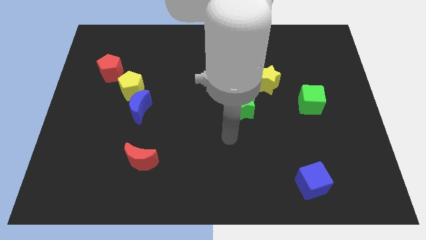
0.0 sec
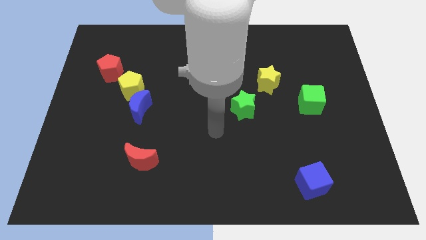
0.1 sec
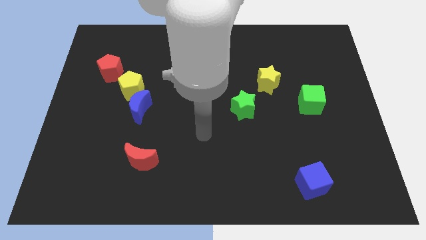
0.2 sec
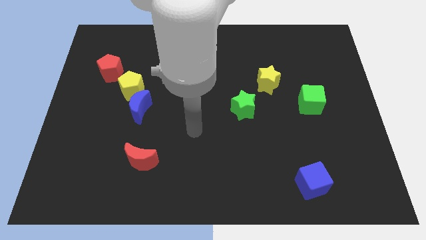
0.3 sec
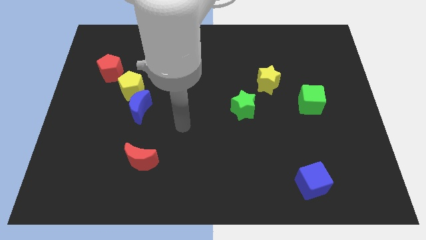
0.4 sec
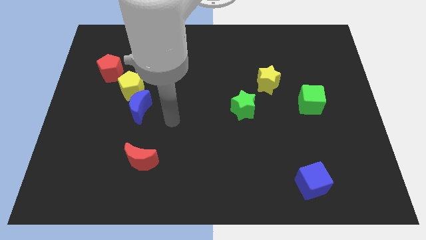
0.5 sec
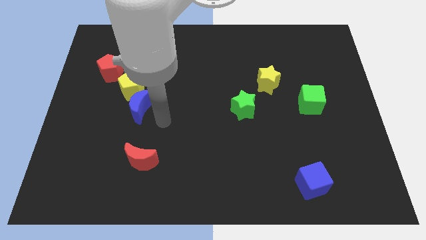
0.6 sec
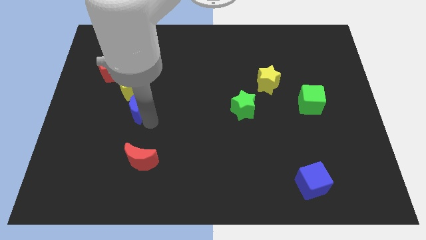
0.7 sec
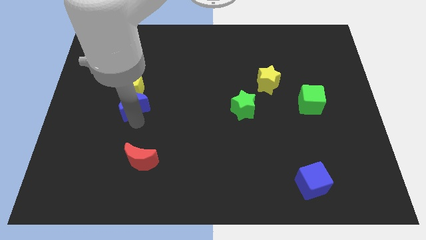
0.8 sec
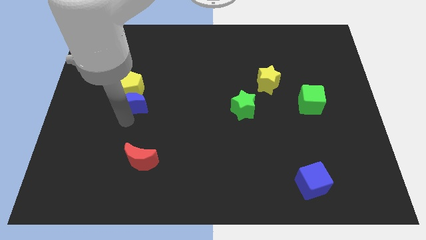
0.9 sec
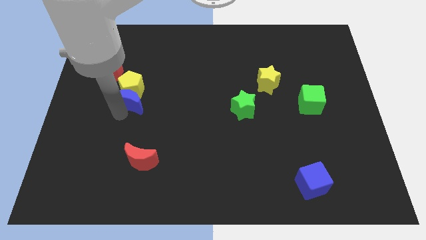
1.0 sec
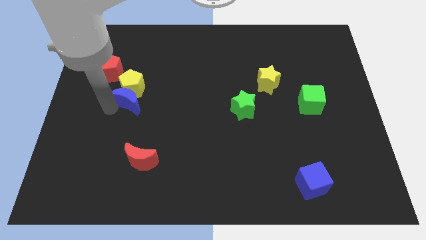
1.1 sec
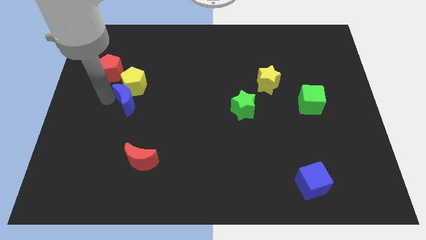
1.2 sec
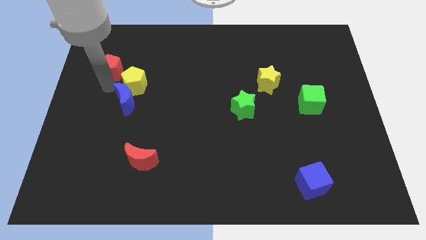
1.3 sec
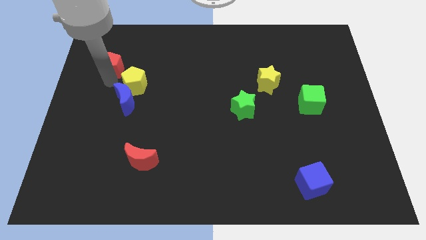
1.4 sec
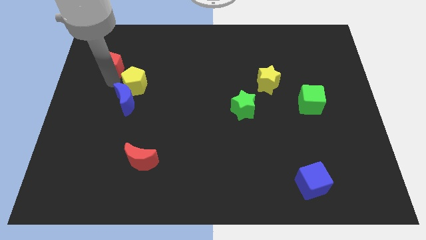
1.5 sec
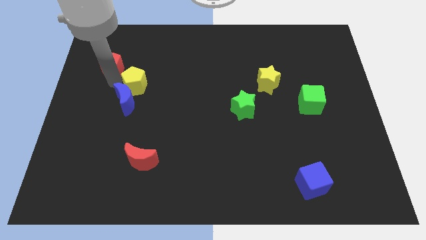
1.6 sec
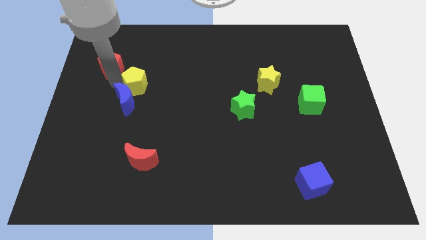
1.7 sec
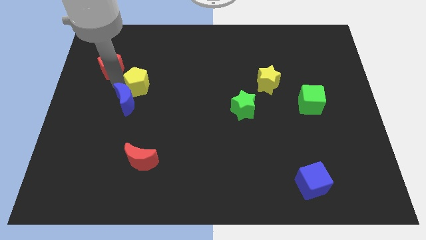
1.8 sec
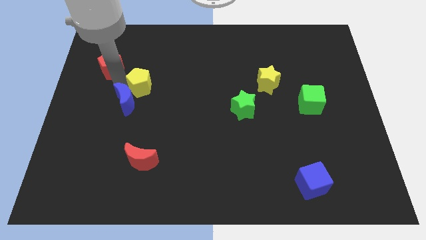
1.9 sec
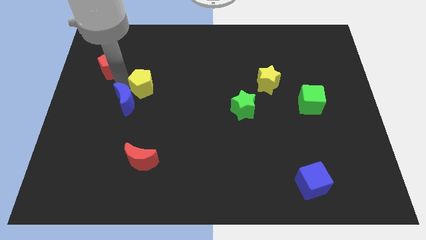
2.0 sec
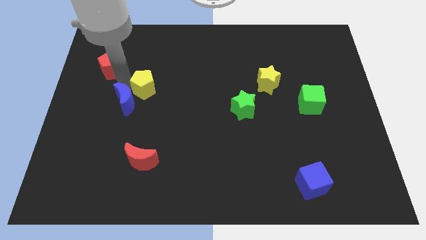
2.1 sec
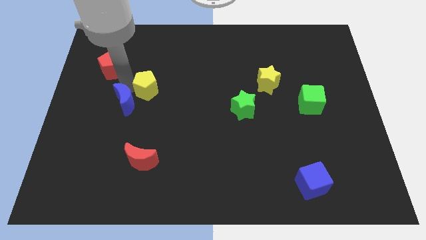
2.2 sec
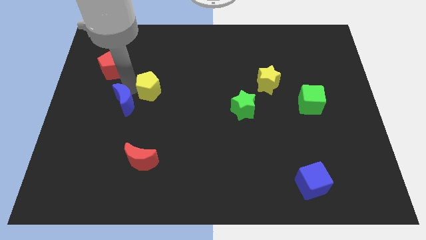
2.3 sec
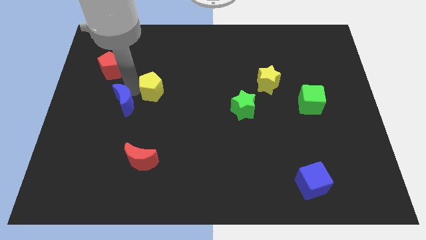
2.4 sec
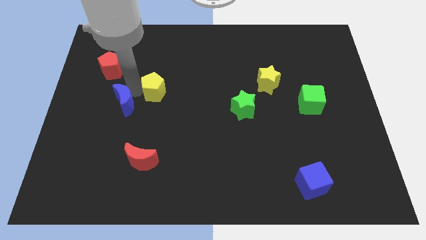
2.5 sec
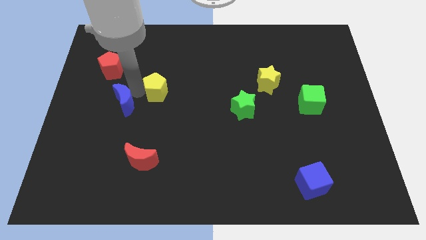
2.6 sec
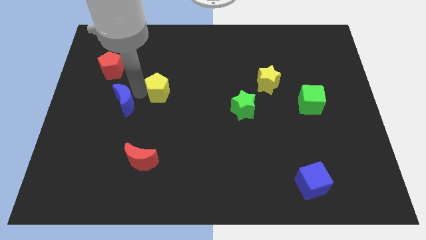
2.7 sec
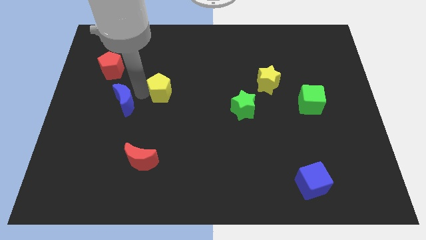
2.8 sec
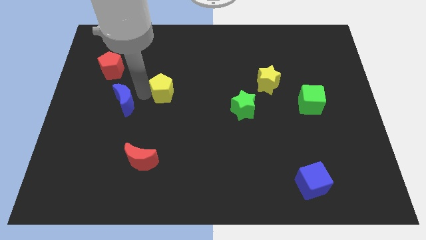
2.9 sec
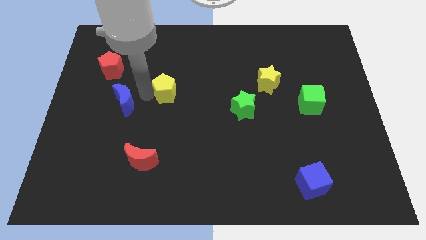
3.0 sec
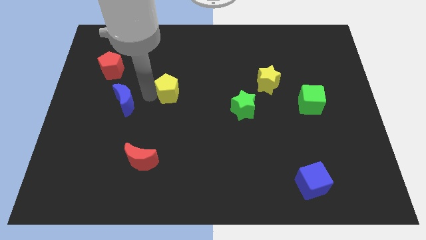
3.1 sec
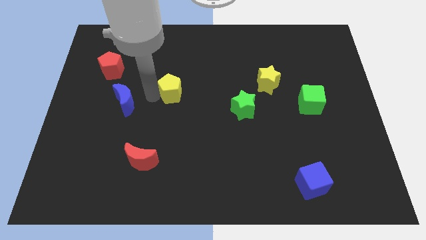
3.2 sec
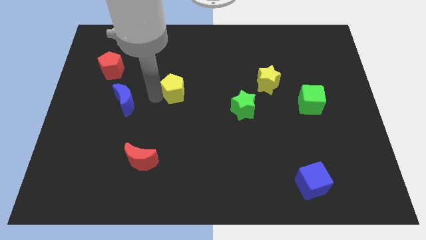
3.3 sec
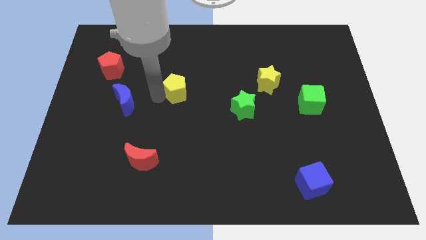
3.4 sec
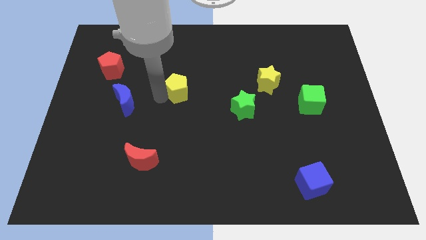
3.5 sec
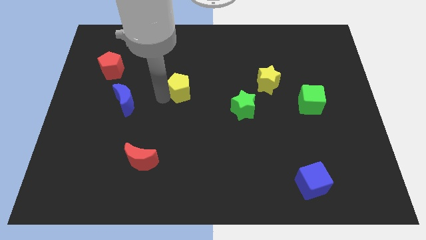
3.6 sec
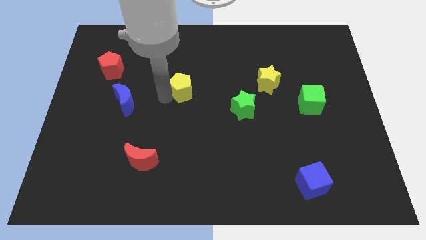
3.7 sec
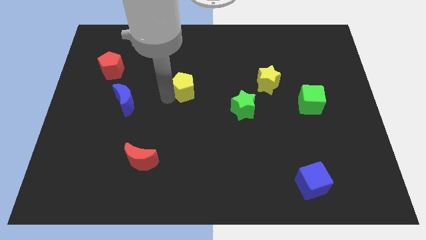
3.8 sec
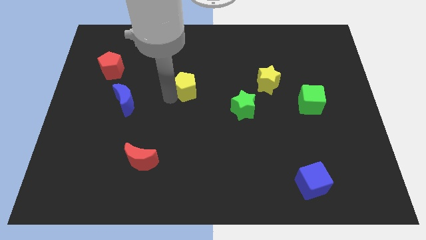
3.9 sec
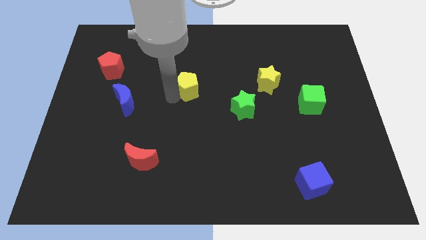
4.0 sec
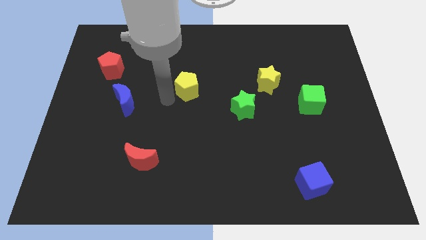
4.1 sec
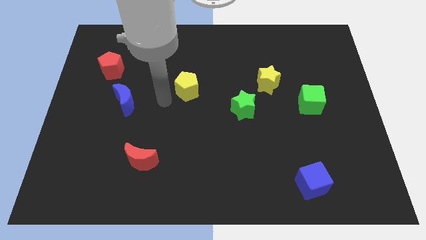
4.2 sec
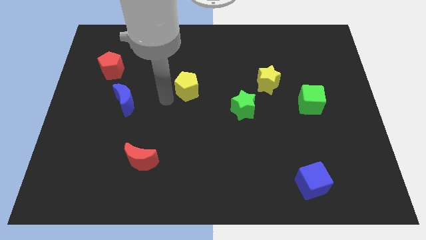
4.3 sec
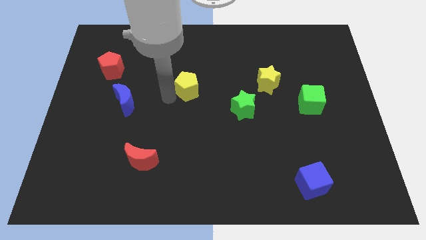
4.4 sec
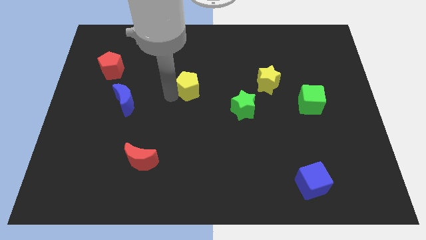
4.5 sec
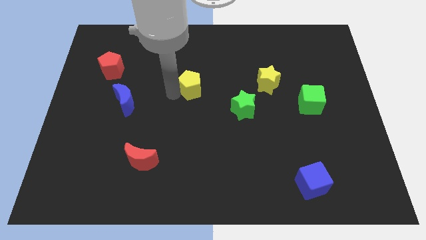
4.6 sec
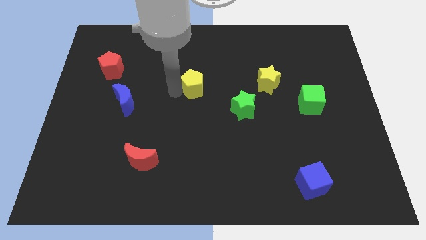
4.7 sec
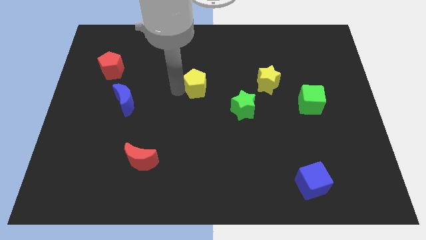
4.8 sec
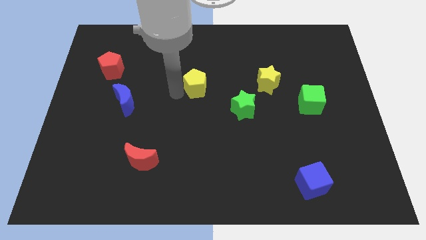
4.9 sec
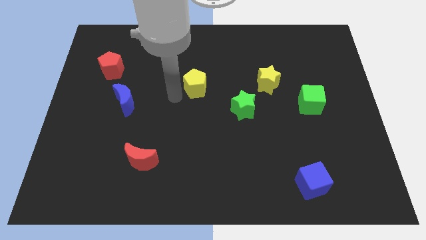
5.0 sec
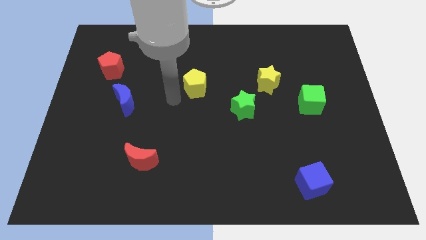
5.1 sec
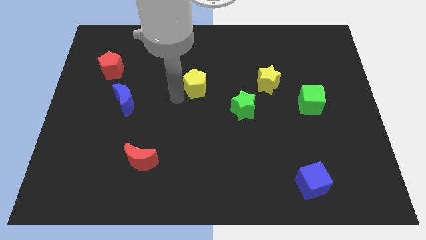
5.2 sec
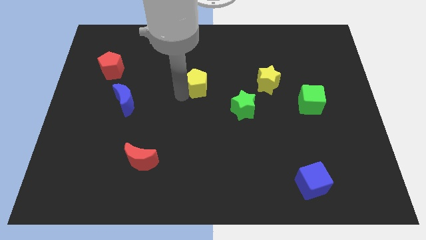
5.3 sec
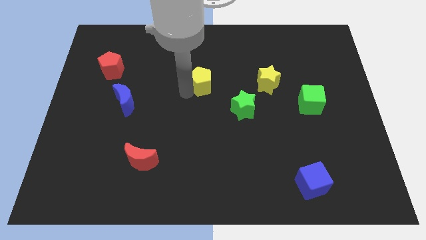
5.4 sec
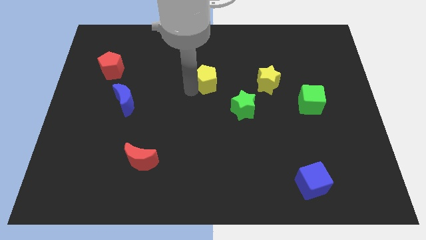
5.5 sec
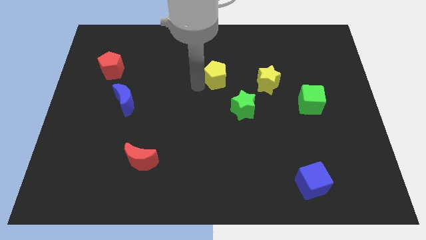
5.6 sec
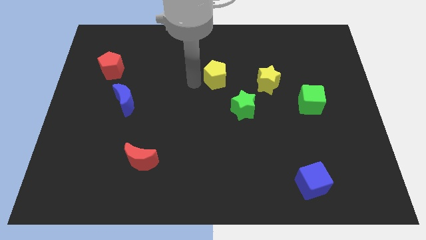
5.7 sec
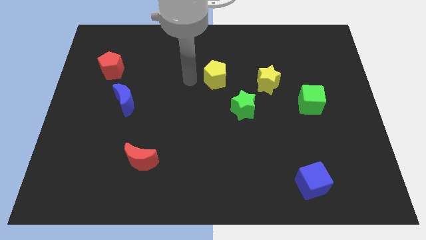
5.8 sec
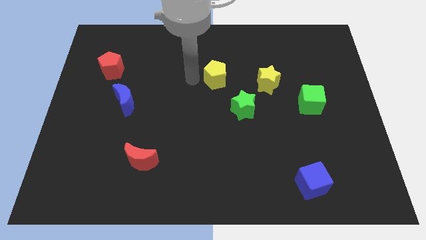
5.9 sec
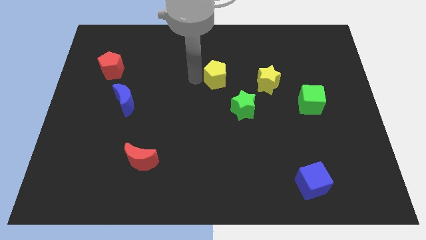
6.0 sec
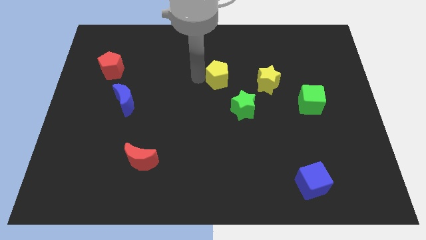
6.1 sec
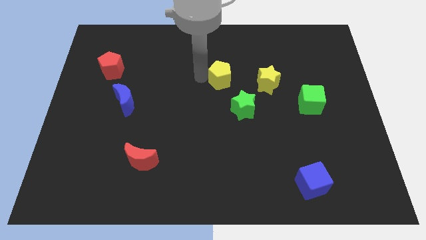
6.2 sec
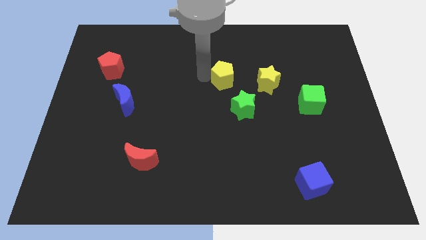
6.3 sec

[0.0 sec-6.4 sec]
put the yellow pentagon above the green star

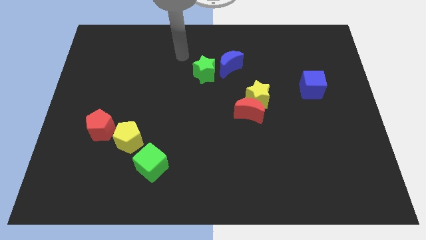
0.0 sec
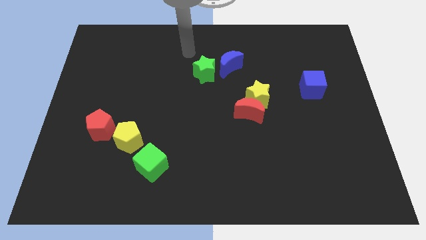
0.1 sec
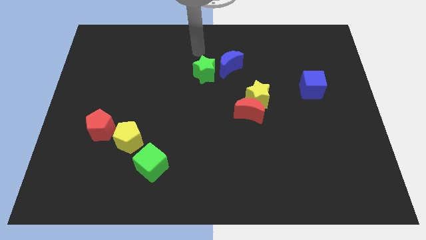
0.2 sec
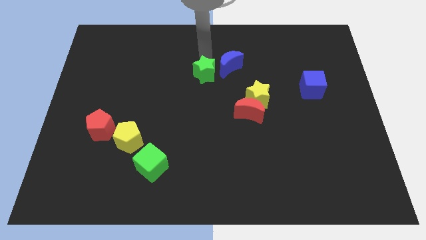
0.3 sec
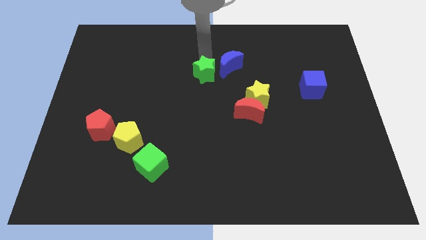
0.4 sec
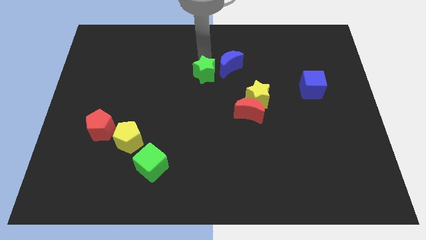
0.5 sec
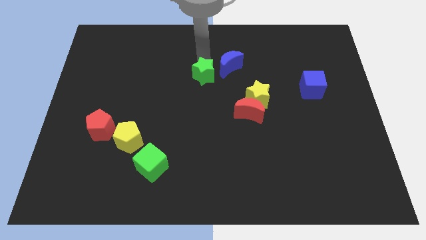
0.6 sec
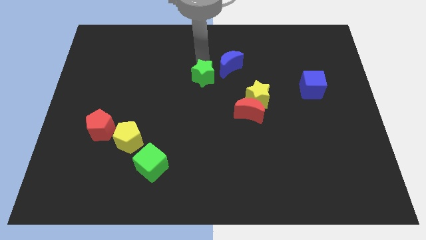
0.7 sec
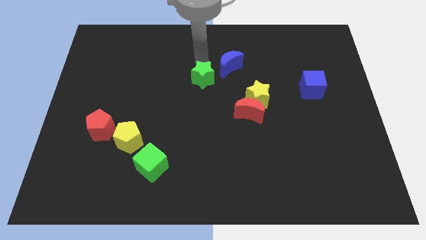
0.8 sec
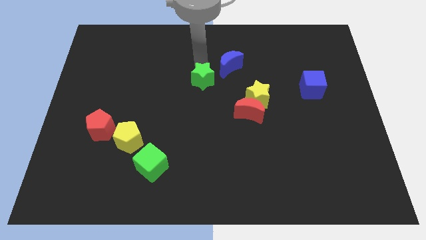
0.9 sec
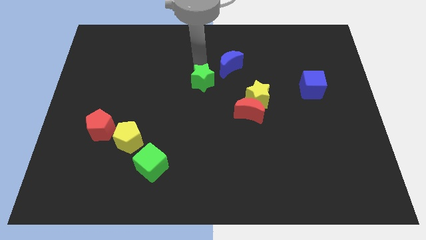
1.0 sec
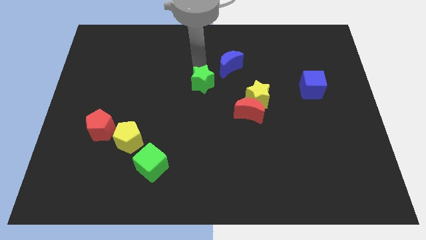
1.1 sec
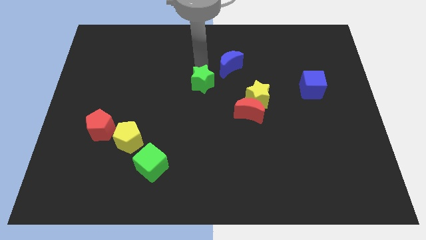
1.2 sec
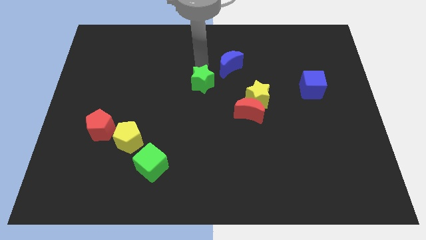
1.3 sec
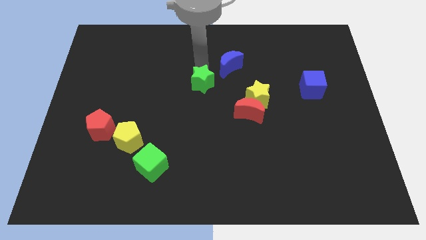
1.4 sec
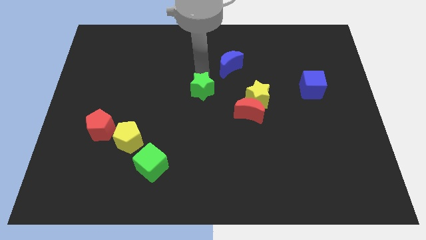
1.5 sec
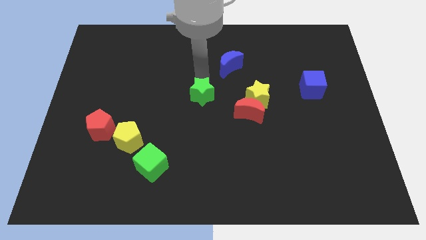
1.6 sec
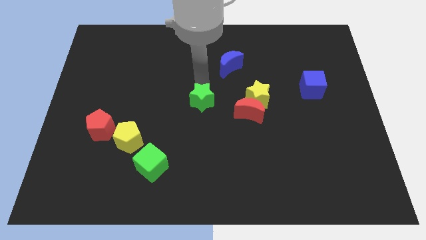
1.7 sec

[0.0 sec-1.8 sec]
slide the green star to the left side of the red moon
